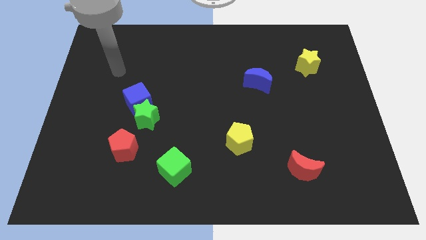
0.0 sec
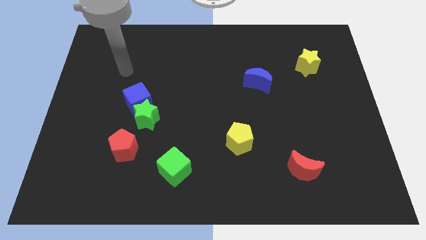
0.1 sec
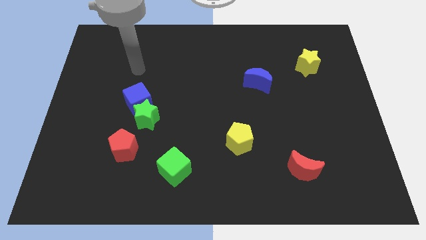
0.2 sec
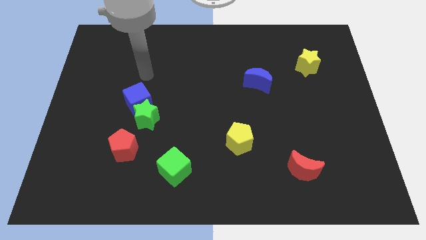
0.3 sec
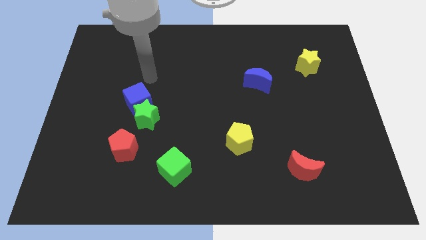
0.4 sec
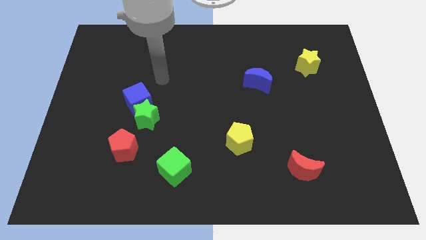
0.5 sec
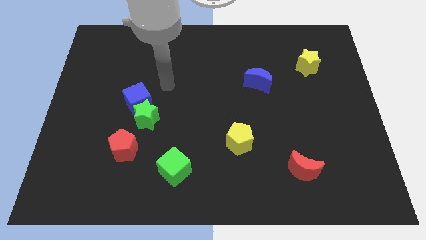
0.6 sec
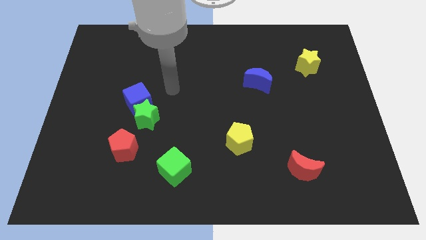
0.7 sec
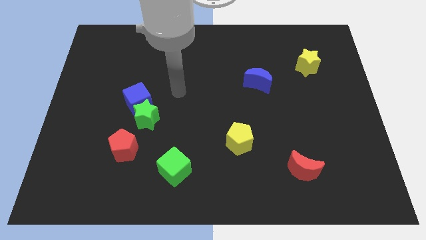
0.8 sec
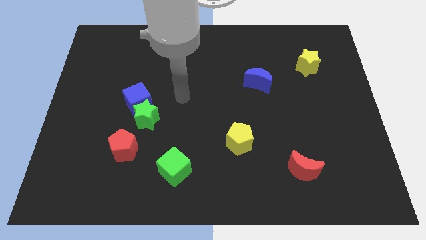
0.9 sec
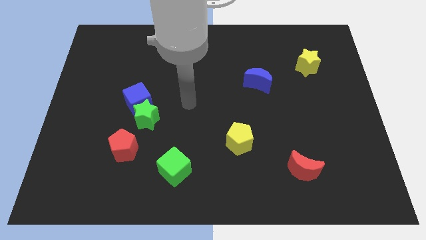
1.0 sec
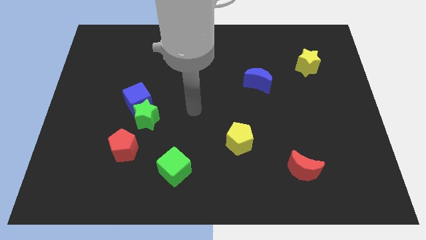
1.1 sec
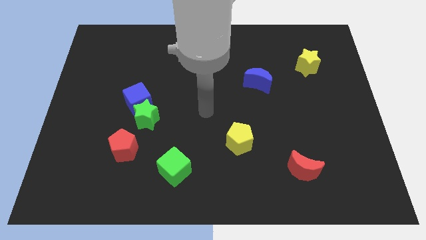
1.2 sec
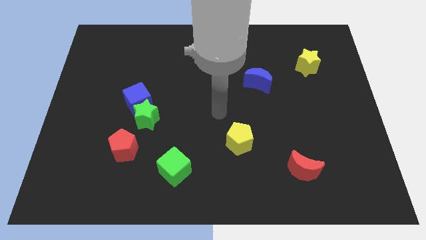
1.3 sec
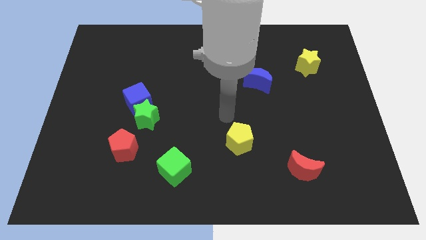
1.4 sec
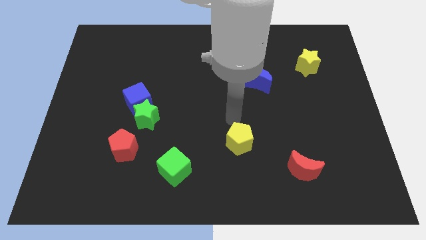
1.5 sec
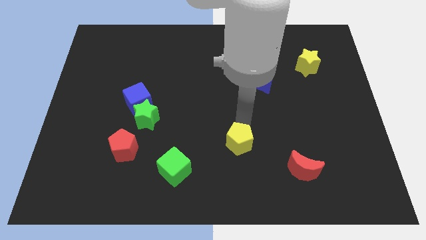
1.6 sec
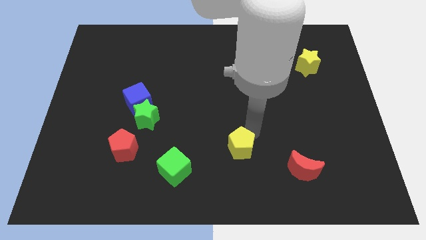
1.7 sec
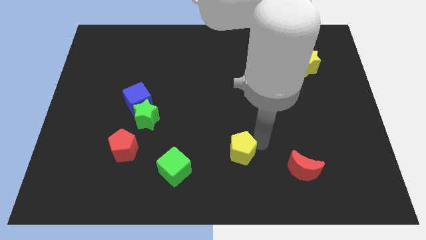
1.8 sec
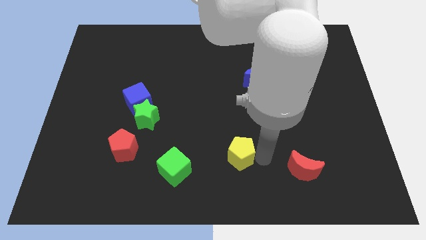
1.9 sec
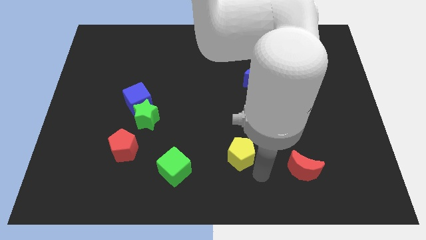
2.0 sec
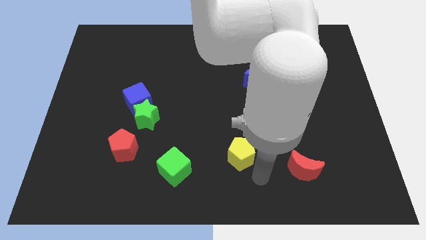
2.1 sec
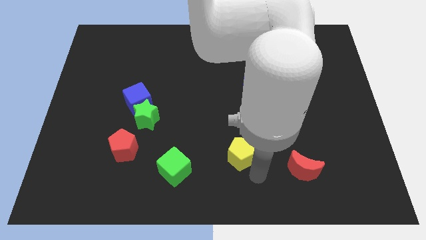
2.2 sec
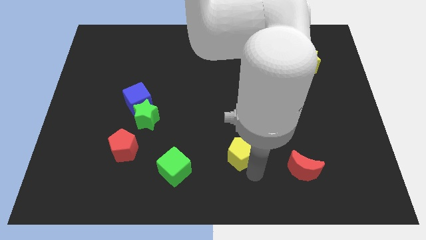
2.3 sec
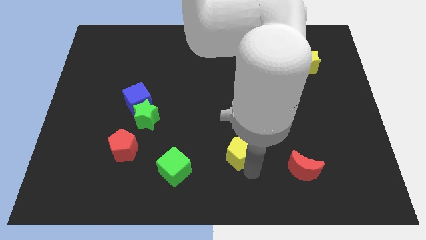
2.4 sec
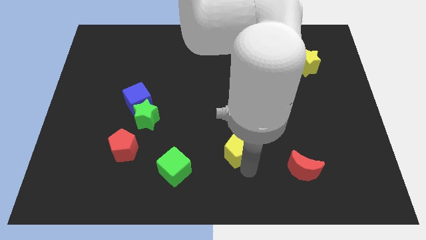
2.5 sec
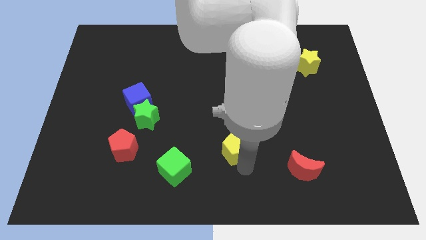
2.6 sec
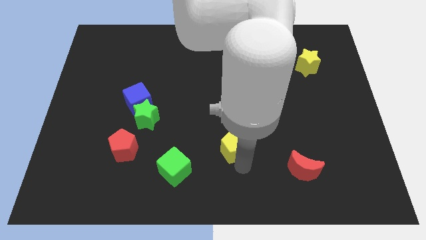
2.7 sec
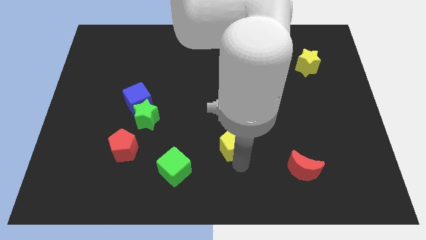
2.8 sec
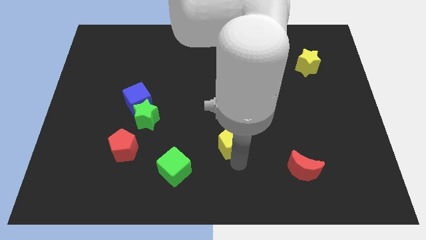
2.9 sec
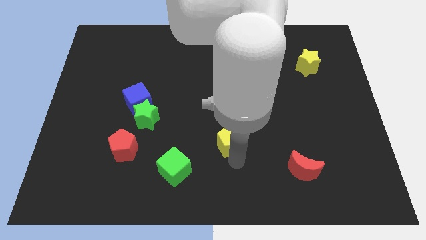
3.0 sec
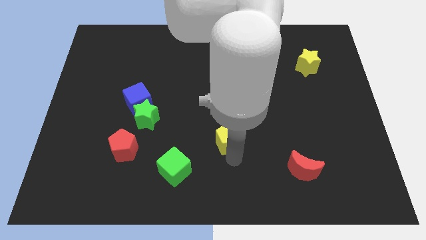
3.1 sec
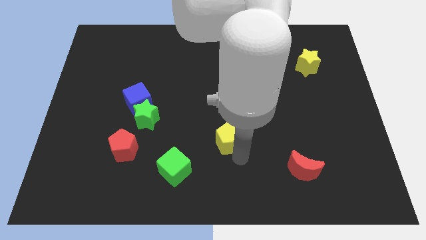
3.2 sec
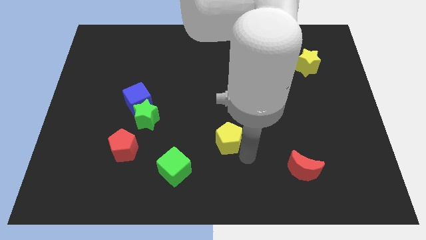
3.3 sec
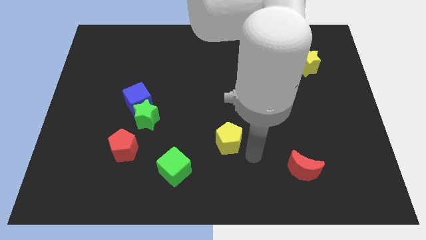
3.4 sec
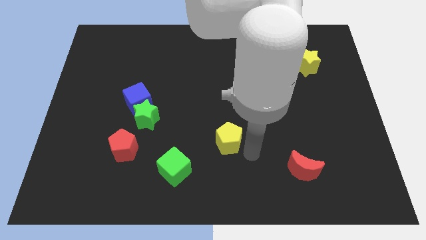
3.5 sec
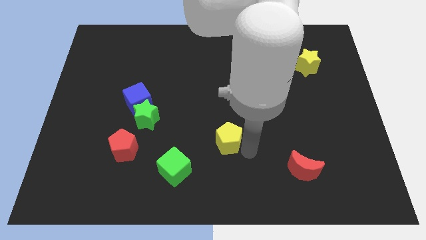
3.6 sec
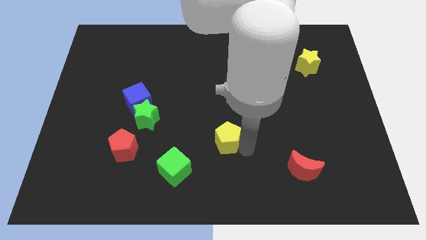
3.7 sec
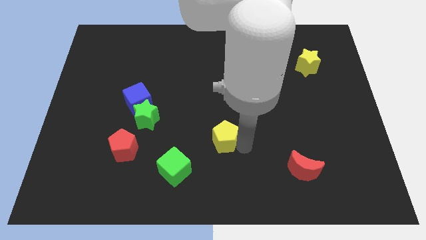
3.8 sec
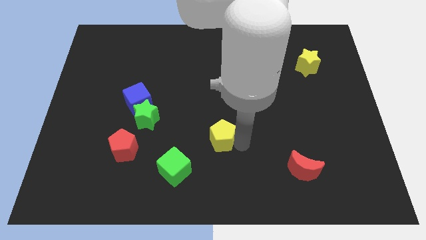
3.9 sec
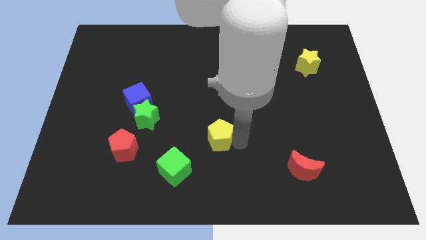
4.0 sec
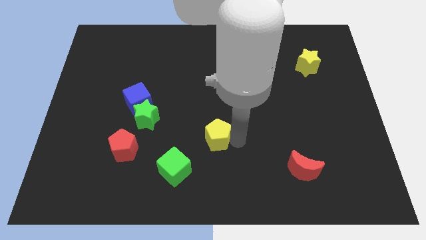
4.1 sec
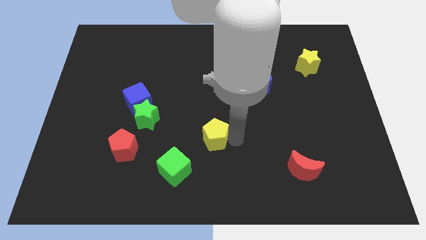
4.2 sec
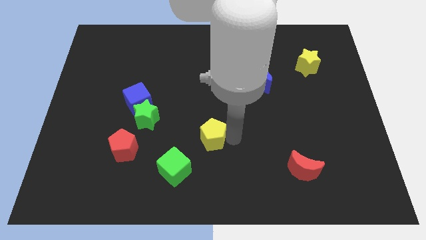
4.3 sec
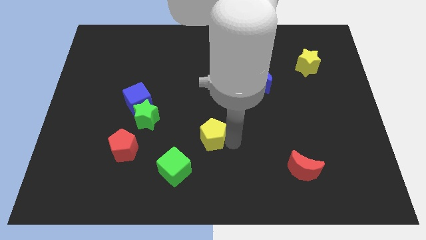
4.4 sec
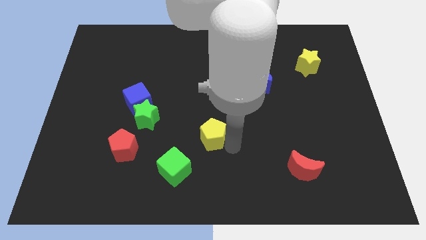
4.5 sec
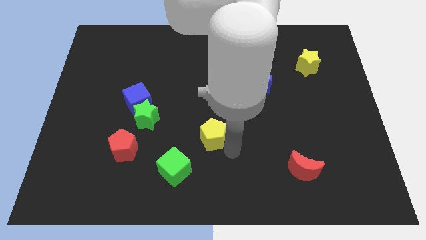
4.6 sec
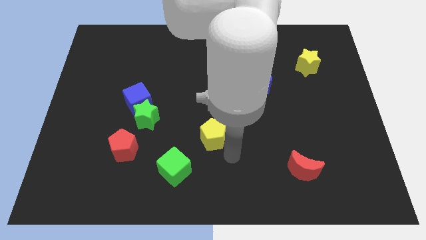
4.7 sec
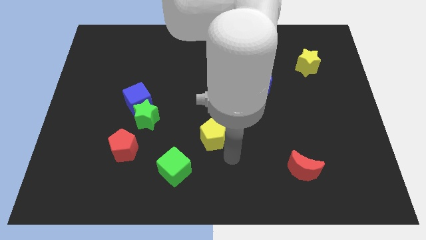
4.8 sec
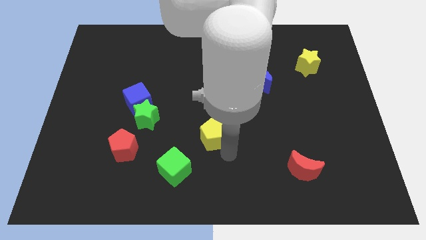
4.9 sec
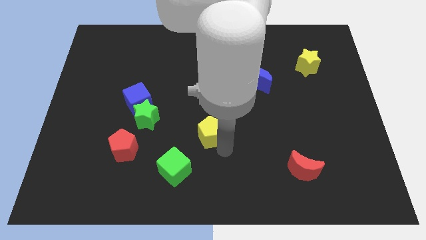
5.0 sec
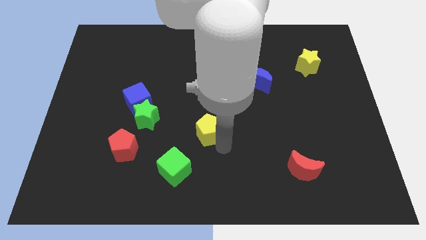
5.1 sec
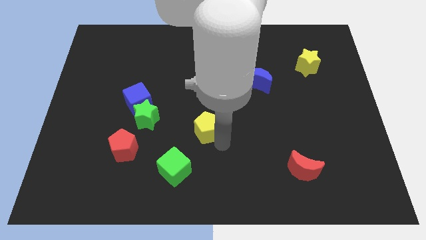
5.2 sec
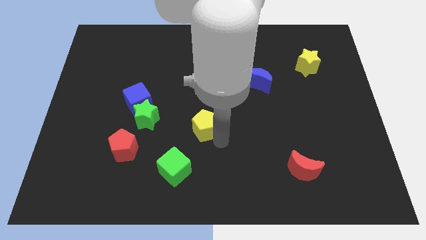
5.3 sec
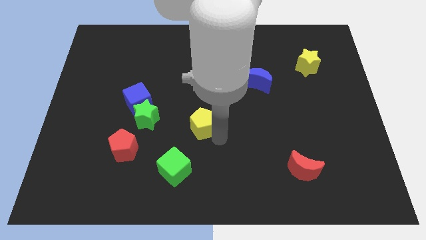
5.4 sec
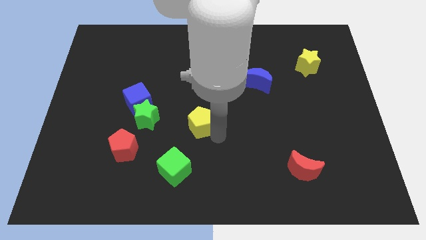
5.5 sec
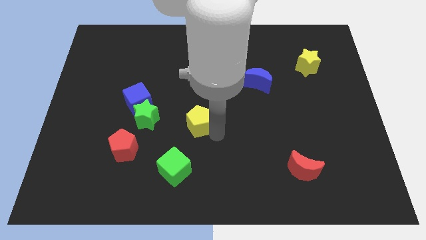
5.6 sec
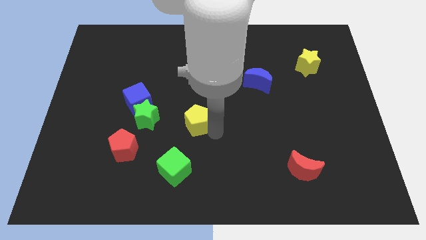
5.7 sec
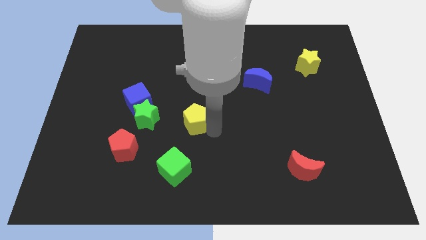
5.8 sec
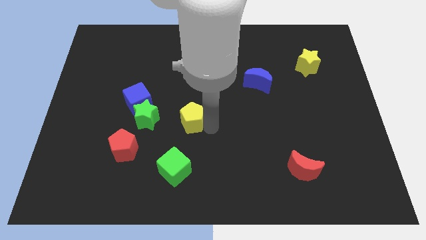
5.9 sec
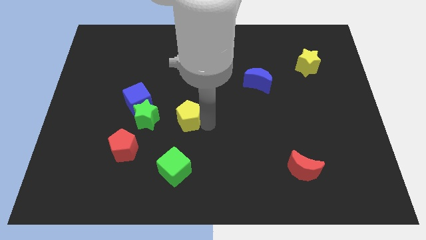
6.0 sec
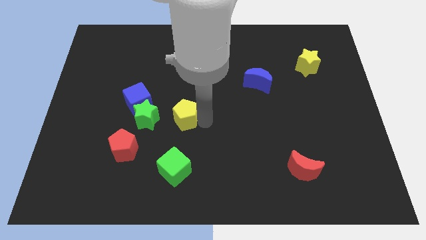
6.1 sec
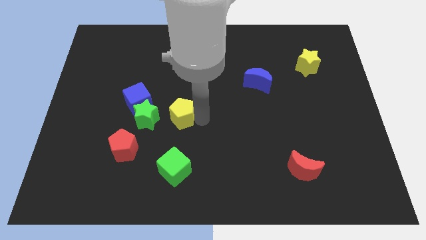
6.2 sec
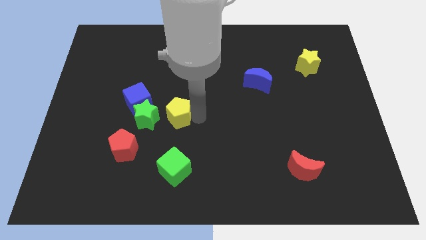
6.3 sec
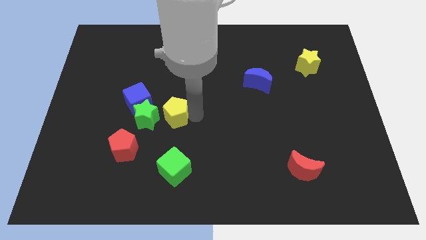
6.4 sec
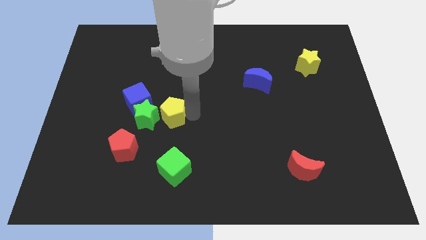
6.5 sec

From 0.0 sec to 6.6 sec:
move the yellow pentagon next to the green star

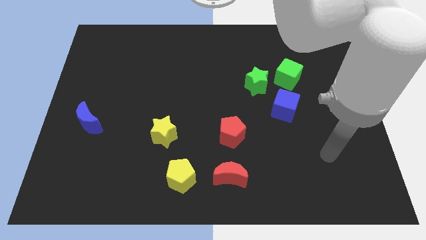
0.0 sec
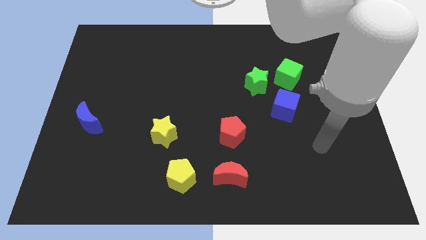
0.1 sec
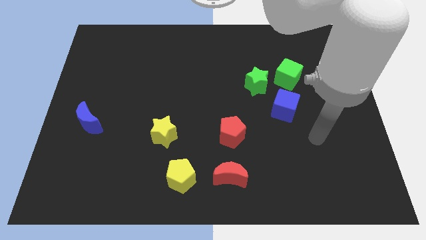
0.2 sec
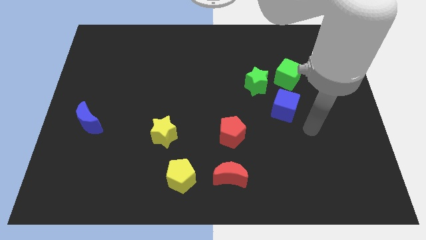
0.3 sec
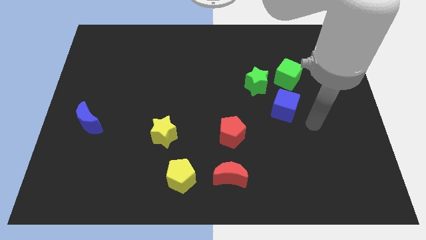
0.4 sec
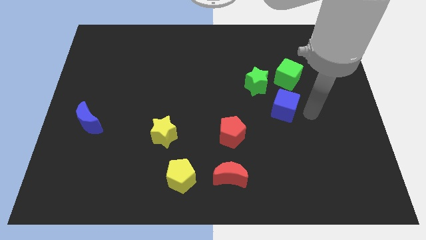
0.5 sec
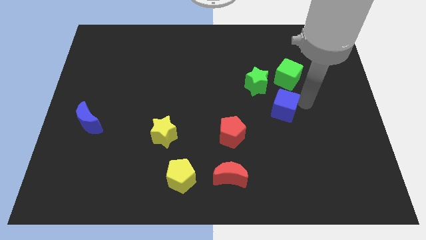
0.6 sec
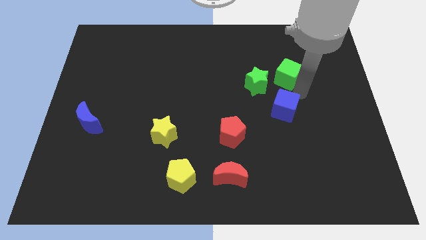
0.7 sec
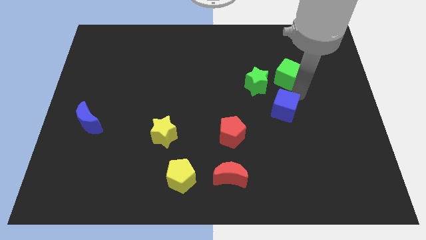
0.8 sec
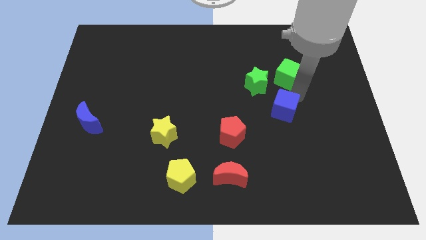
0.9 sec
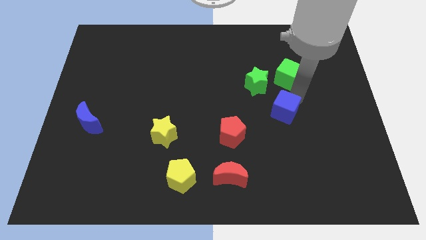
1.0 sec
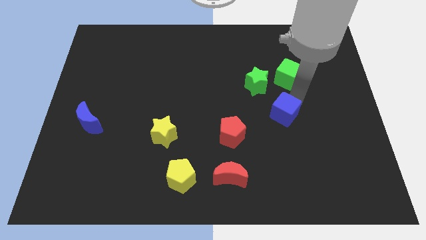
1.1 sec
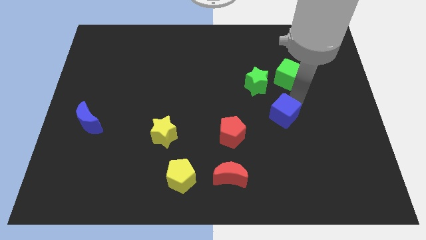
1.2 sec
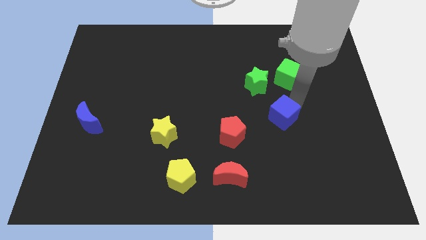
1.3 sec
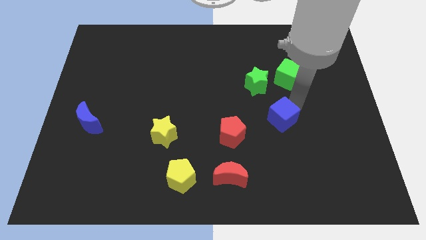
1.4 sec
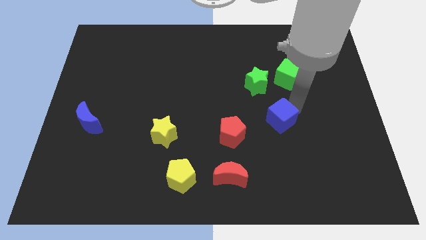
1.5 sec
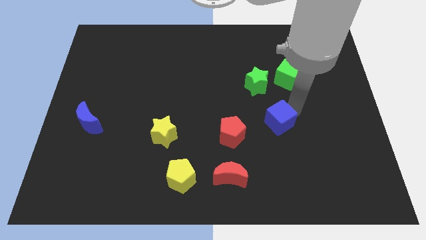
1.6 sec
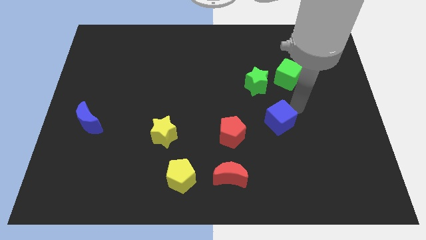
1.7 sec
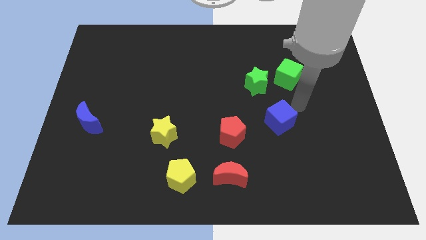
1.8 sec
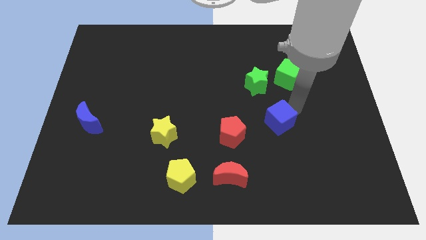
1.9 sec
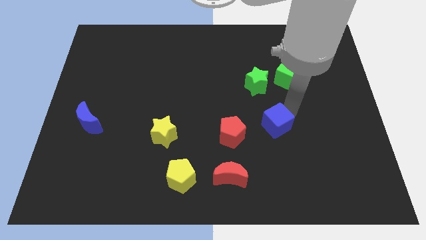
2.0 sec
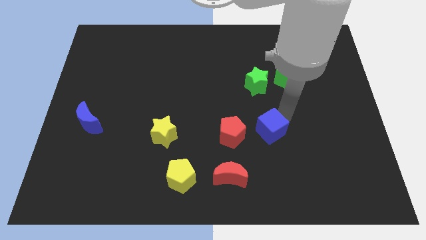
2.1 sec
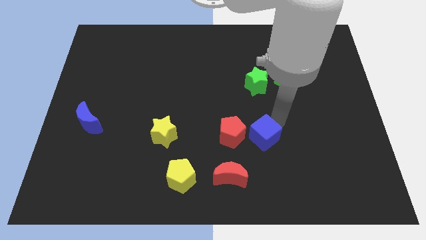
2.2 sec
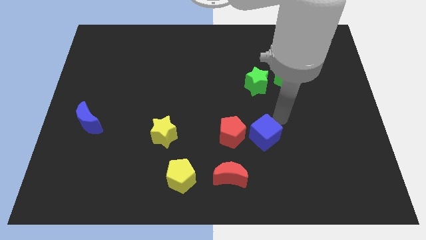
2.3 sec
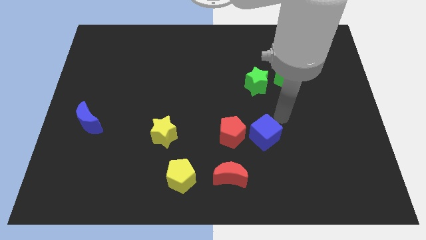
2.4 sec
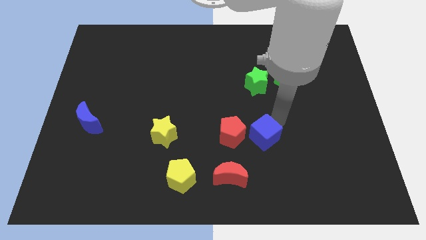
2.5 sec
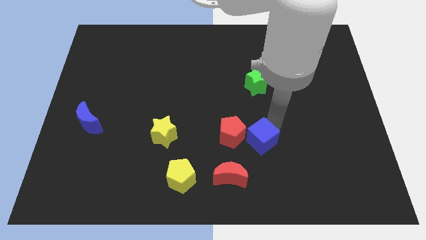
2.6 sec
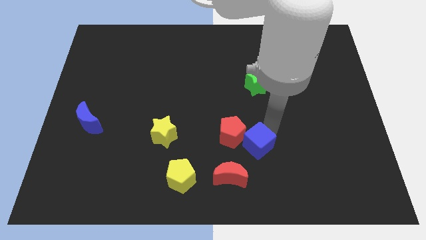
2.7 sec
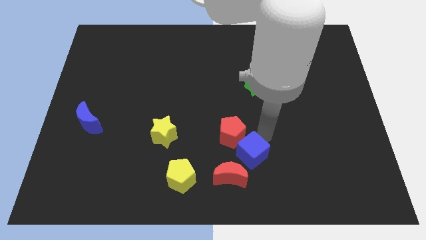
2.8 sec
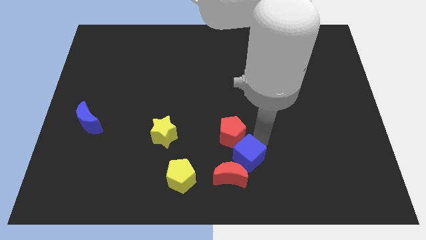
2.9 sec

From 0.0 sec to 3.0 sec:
move the blue cube to the red moon
